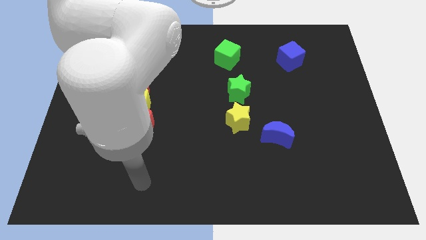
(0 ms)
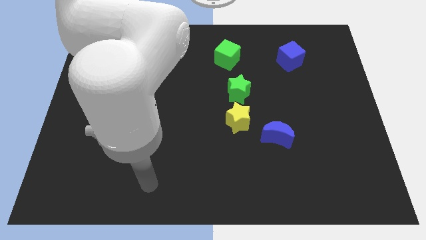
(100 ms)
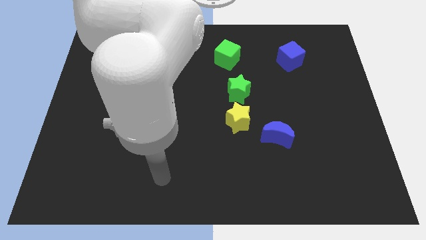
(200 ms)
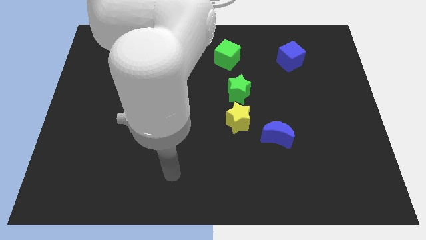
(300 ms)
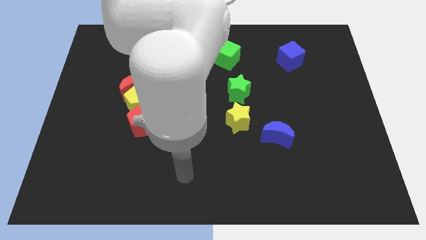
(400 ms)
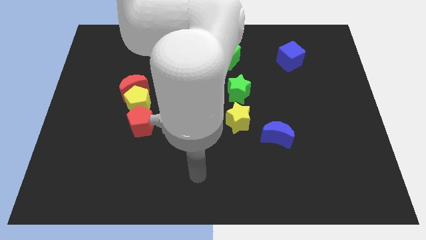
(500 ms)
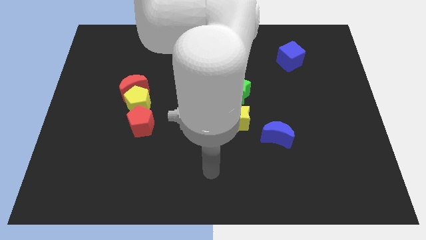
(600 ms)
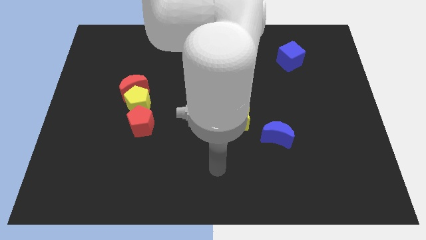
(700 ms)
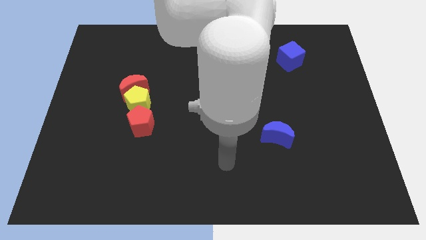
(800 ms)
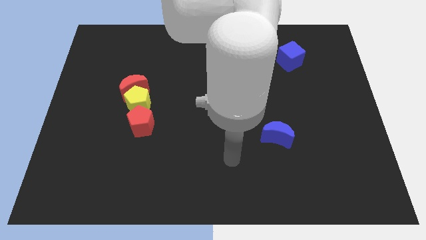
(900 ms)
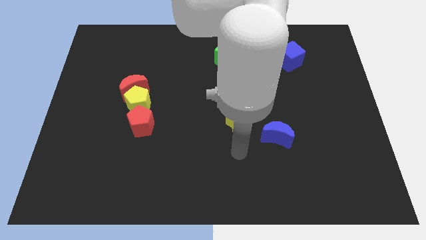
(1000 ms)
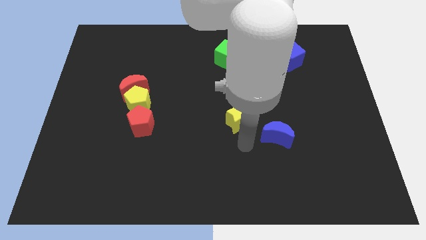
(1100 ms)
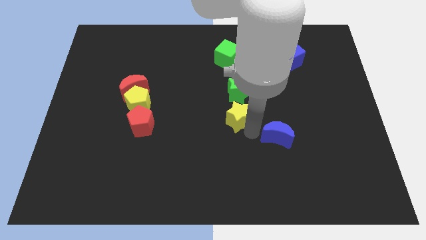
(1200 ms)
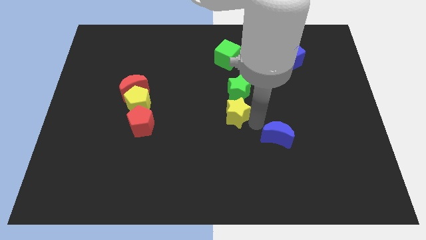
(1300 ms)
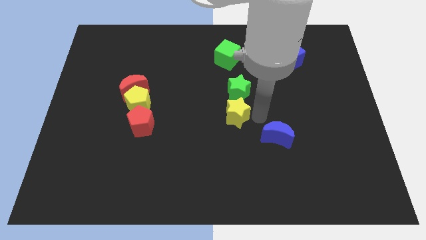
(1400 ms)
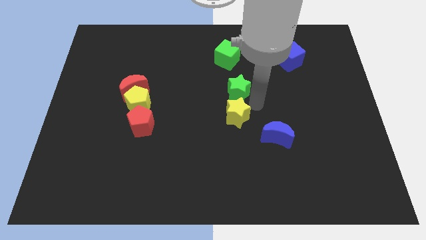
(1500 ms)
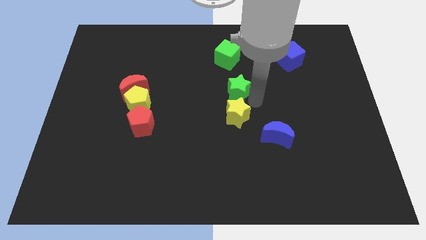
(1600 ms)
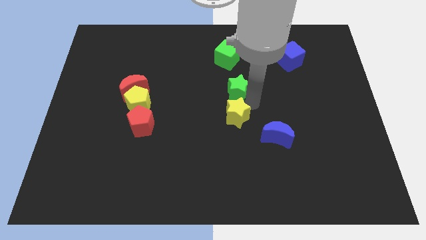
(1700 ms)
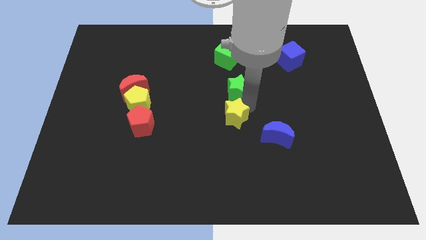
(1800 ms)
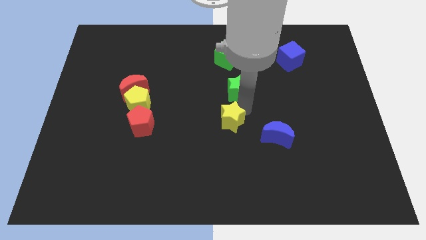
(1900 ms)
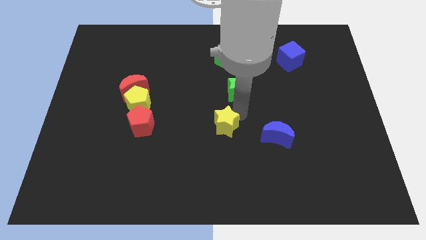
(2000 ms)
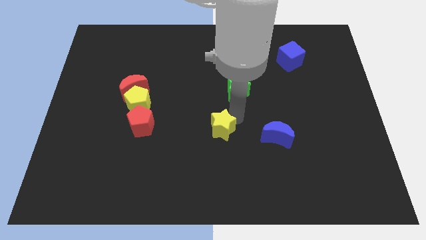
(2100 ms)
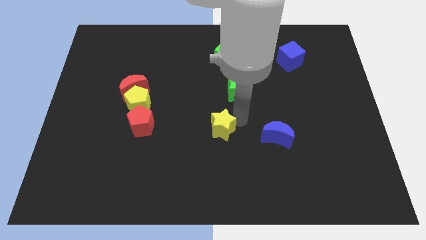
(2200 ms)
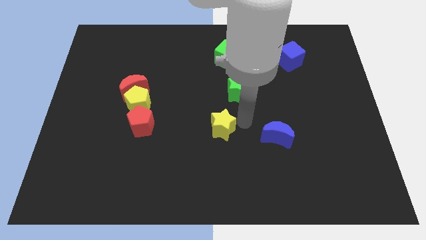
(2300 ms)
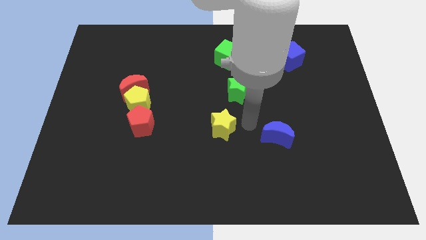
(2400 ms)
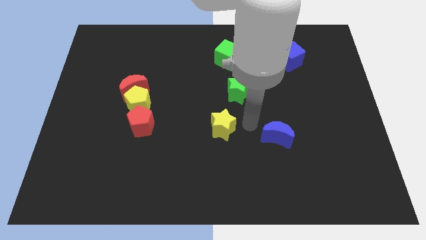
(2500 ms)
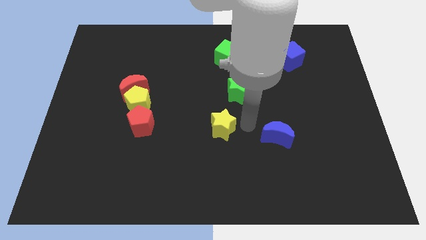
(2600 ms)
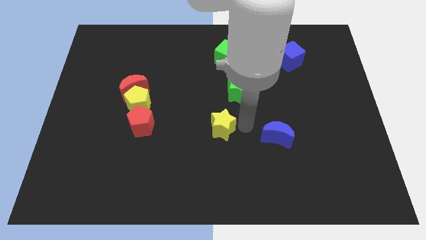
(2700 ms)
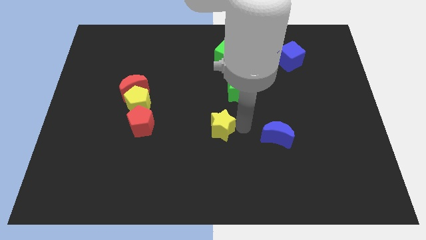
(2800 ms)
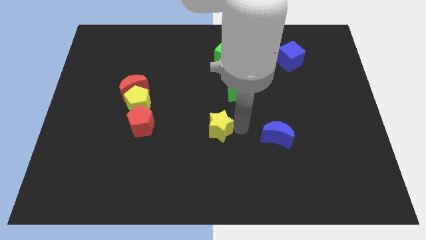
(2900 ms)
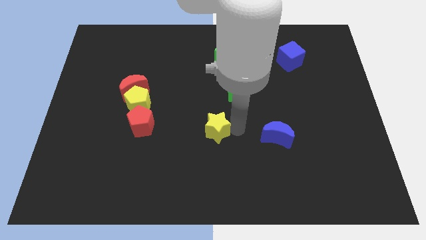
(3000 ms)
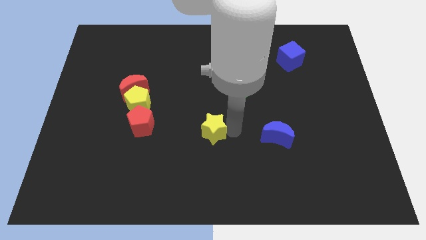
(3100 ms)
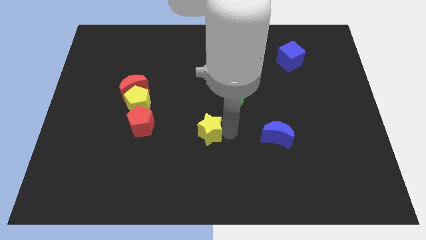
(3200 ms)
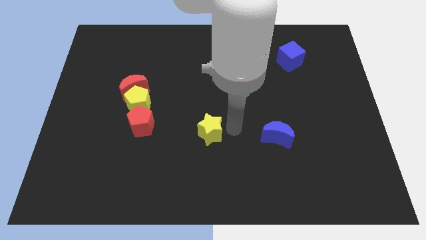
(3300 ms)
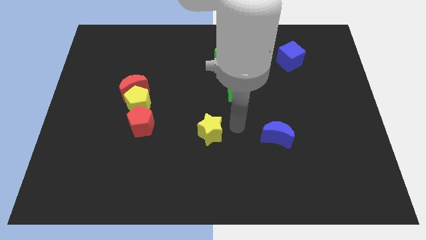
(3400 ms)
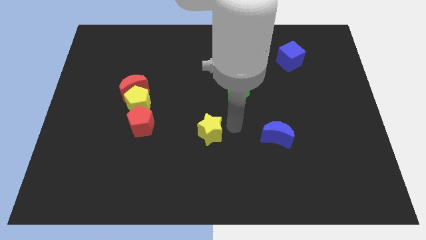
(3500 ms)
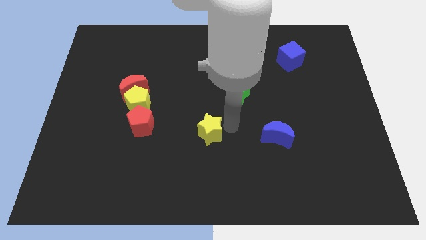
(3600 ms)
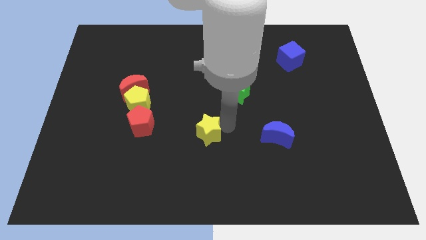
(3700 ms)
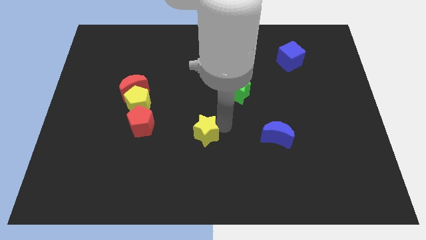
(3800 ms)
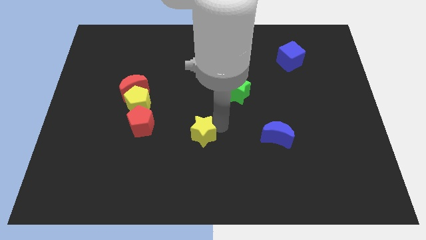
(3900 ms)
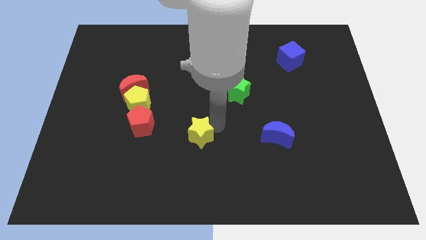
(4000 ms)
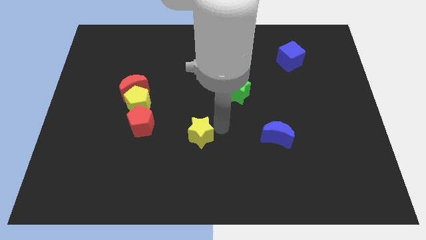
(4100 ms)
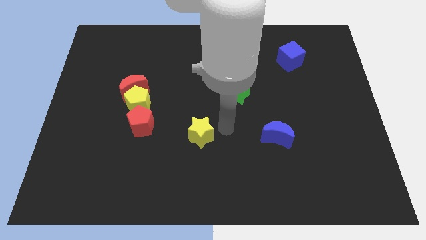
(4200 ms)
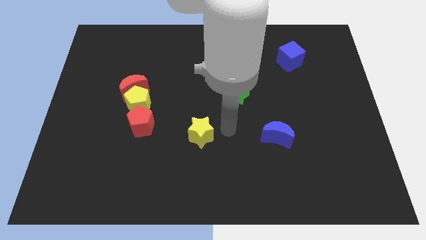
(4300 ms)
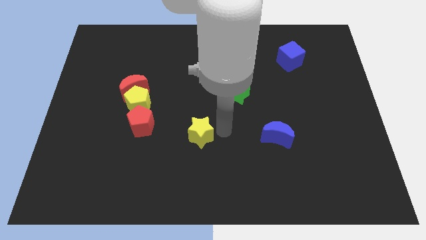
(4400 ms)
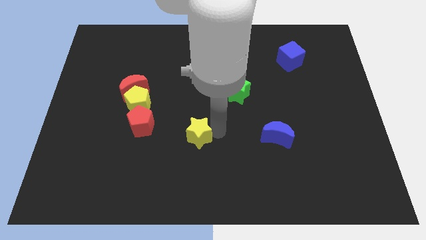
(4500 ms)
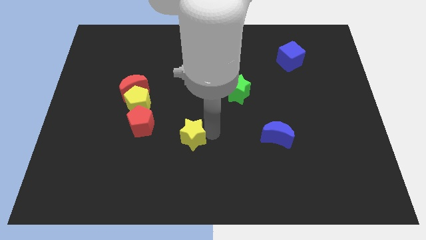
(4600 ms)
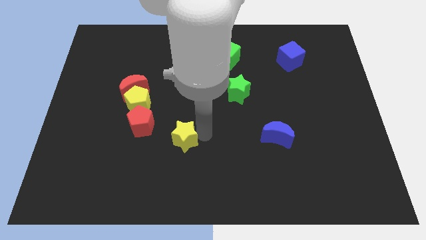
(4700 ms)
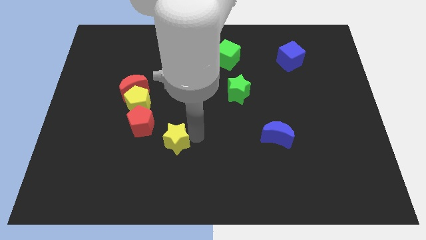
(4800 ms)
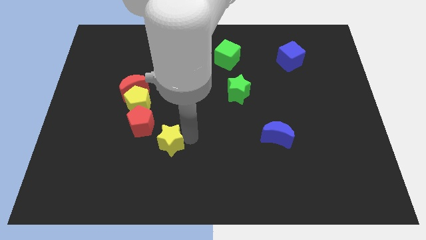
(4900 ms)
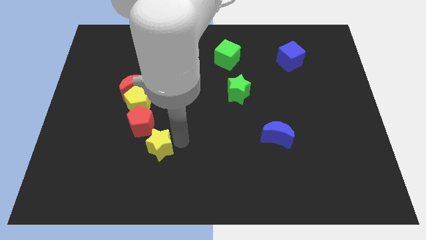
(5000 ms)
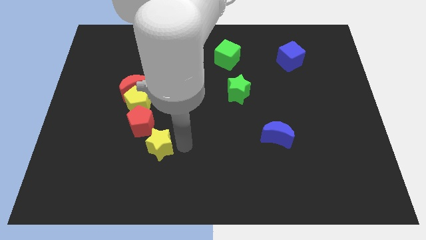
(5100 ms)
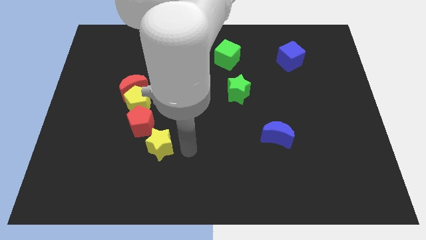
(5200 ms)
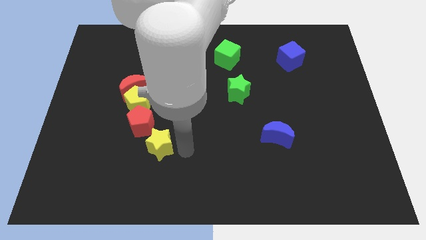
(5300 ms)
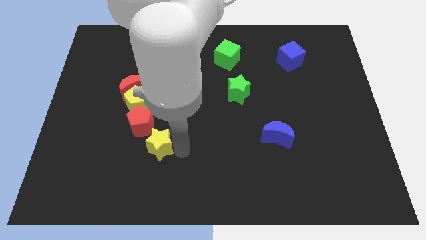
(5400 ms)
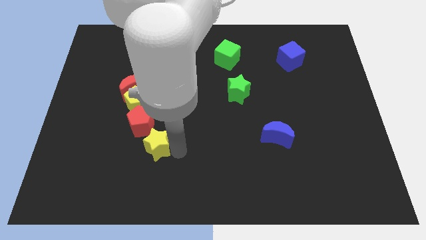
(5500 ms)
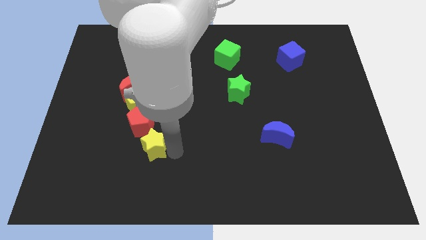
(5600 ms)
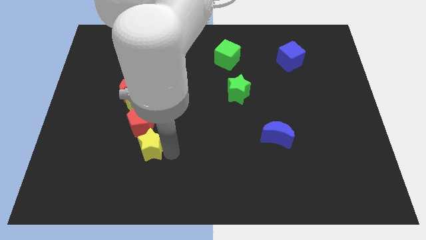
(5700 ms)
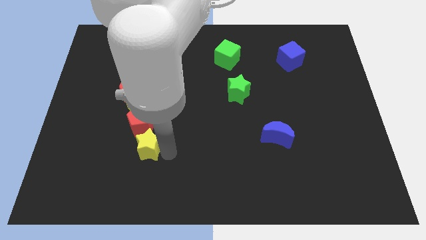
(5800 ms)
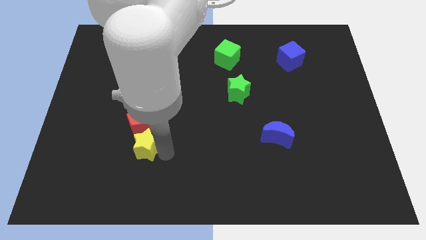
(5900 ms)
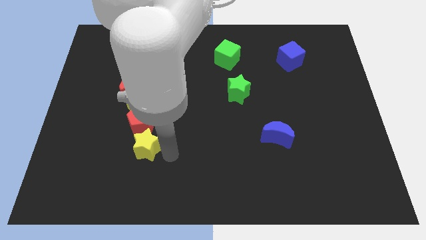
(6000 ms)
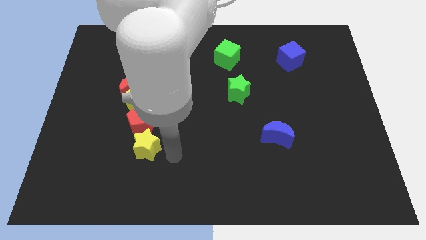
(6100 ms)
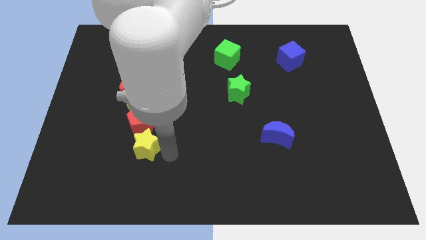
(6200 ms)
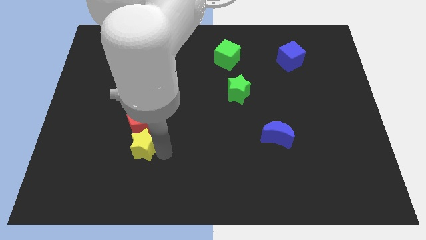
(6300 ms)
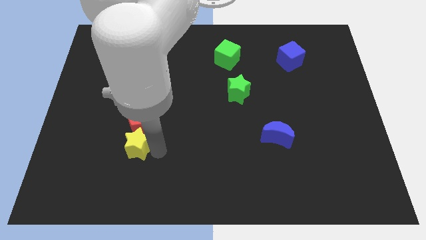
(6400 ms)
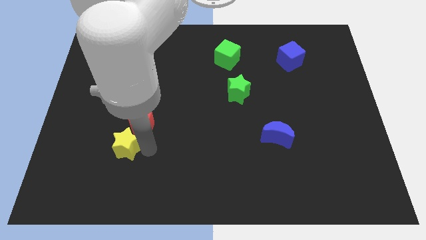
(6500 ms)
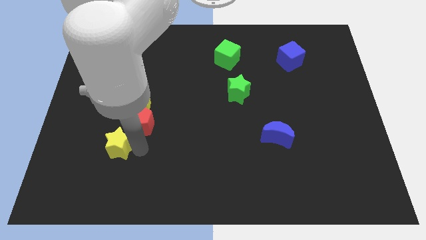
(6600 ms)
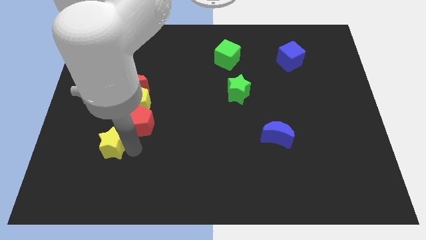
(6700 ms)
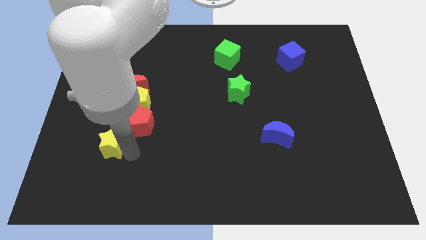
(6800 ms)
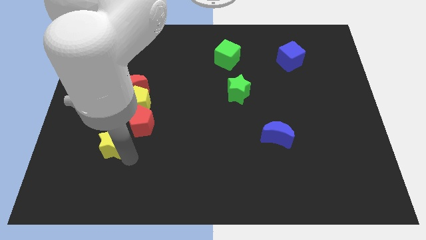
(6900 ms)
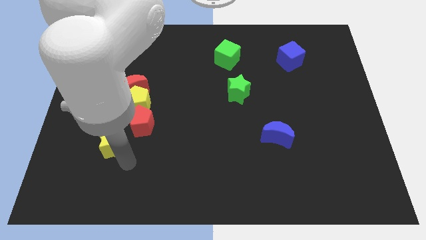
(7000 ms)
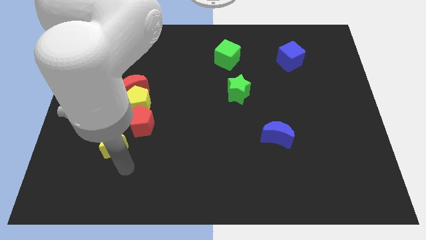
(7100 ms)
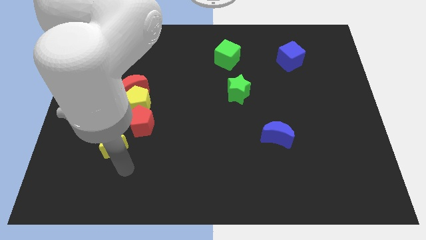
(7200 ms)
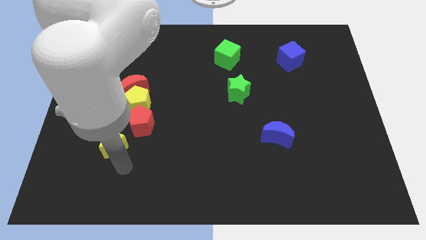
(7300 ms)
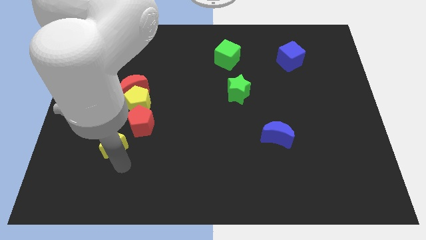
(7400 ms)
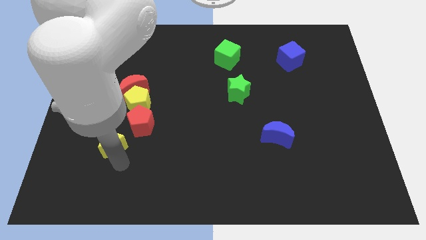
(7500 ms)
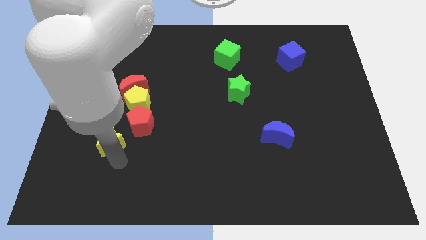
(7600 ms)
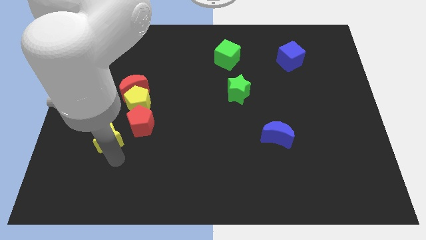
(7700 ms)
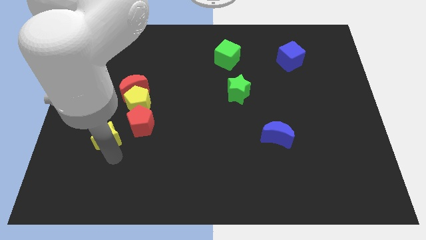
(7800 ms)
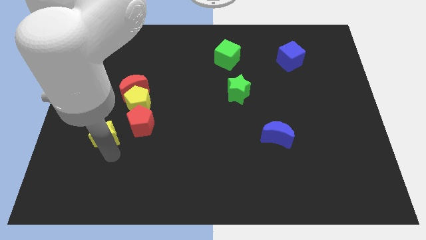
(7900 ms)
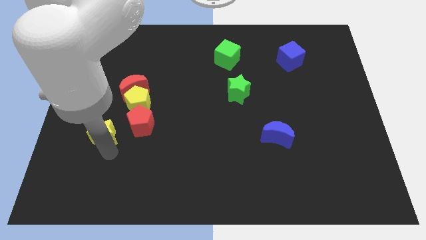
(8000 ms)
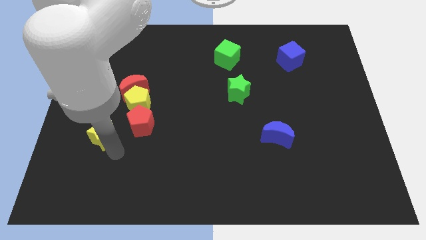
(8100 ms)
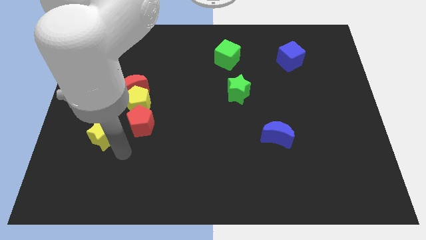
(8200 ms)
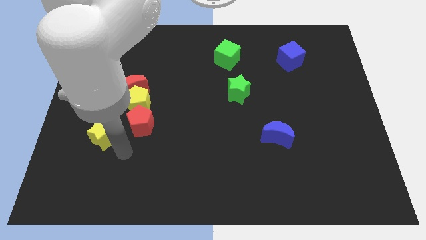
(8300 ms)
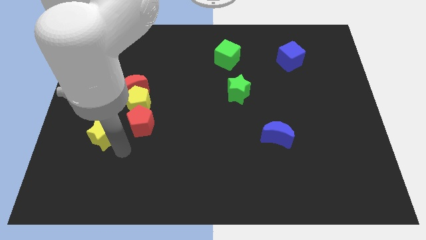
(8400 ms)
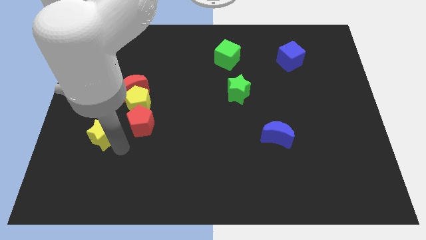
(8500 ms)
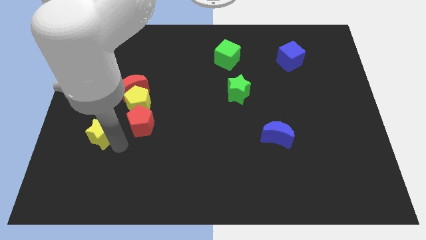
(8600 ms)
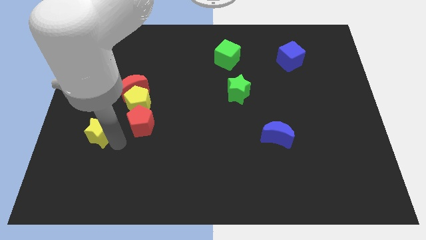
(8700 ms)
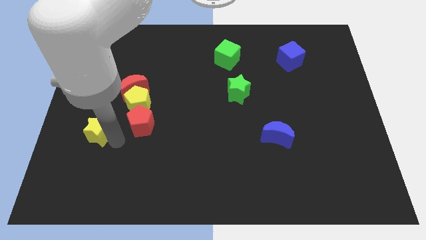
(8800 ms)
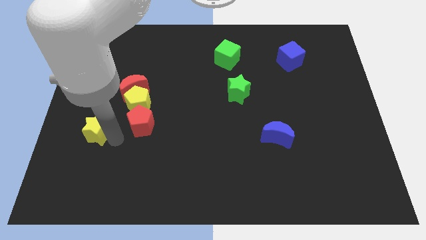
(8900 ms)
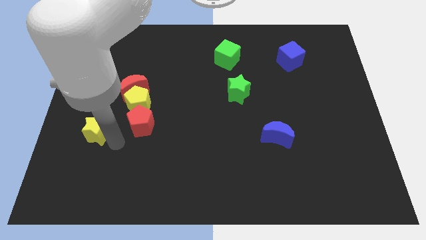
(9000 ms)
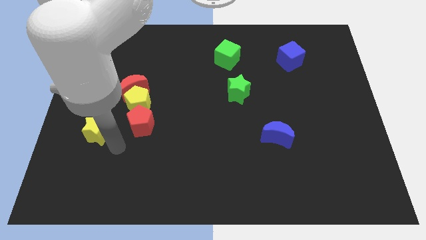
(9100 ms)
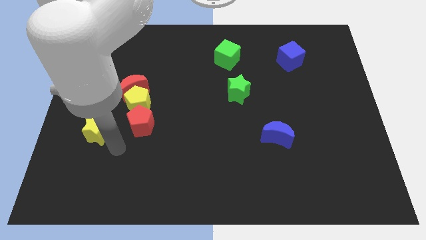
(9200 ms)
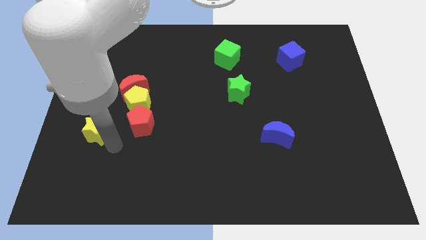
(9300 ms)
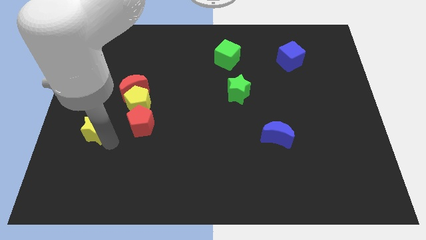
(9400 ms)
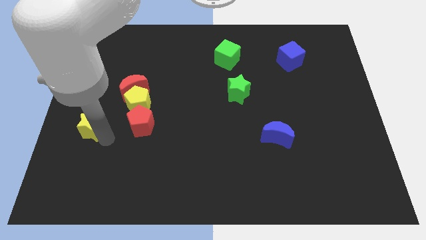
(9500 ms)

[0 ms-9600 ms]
slide the yellow star to the left side of the board
